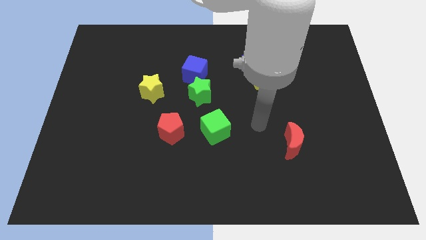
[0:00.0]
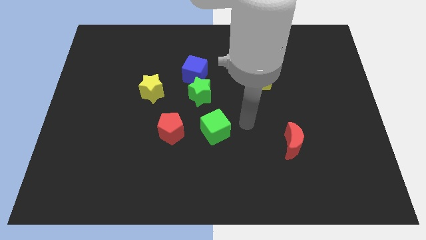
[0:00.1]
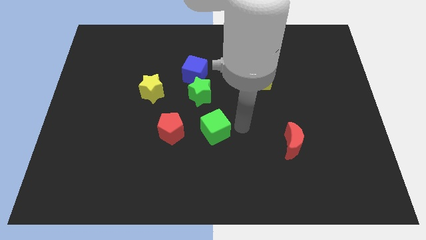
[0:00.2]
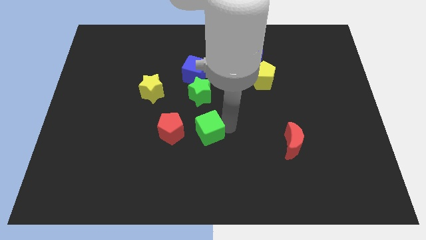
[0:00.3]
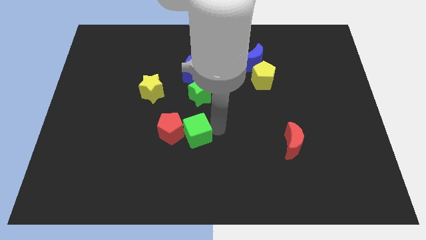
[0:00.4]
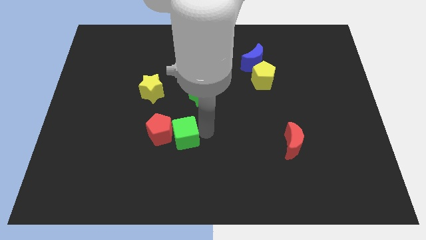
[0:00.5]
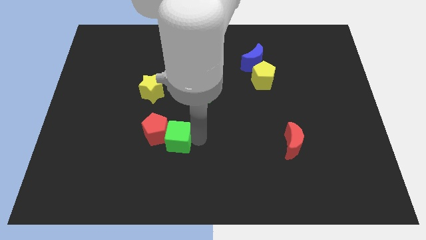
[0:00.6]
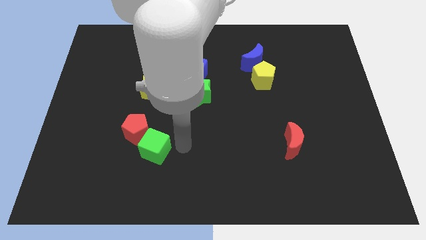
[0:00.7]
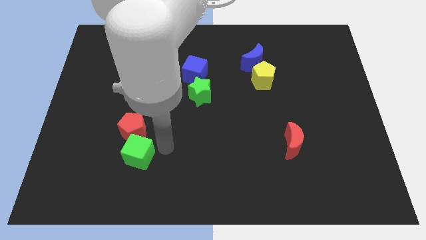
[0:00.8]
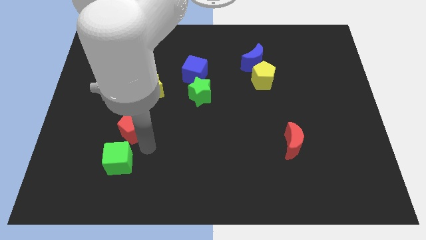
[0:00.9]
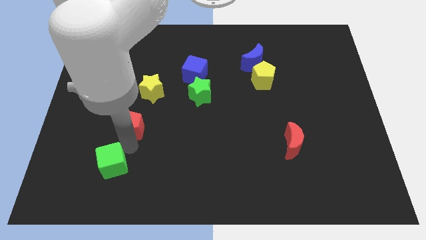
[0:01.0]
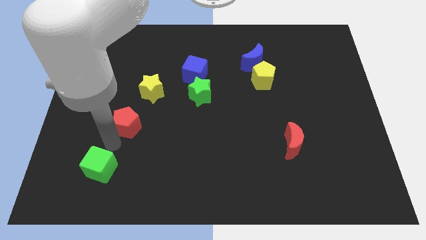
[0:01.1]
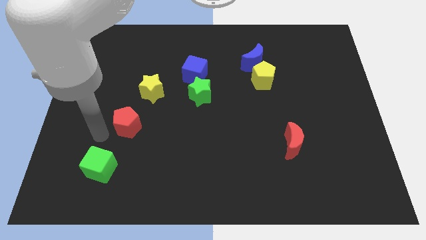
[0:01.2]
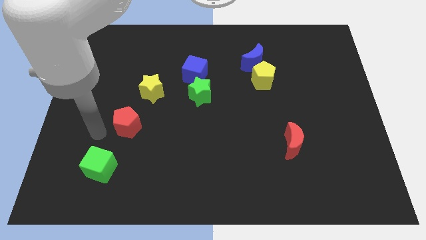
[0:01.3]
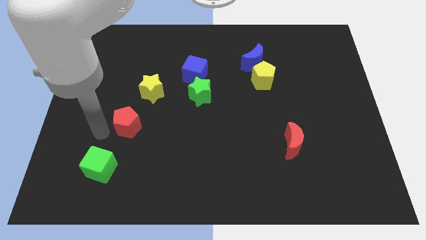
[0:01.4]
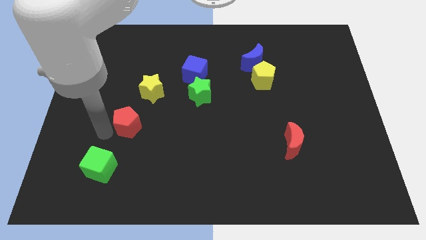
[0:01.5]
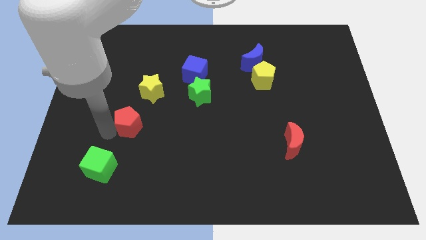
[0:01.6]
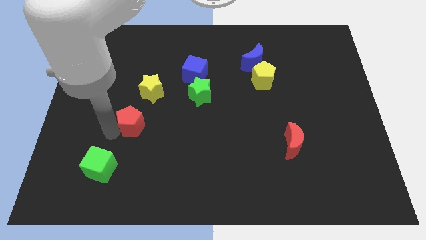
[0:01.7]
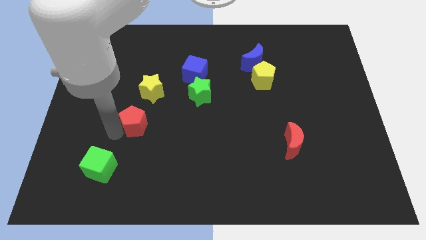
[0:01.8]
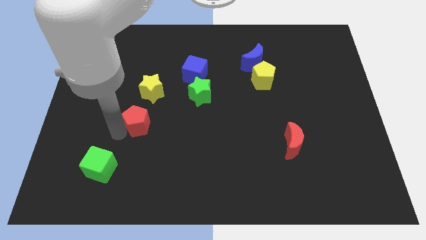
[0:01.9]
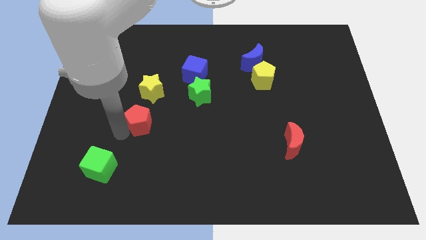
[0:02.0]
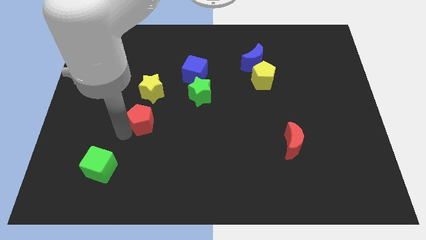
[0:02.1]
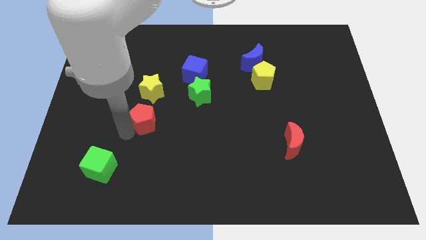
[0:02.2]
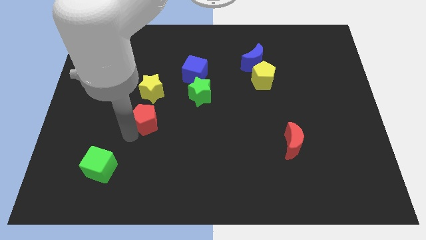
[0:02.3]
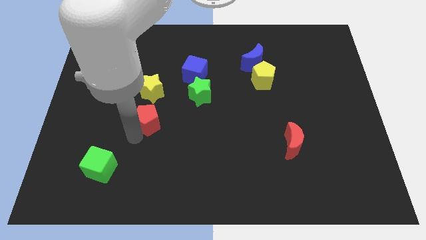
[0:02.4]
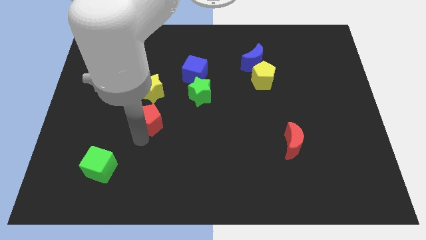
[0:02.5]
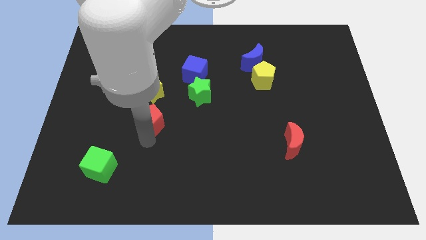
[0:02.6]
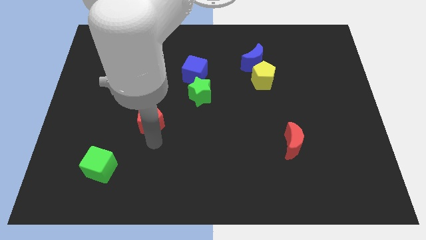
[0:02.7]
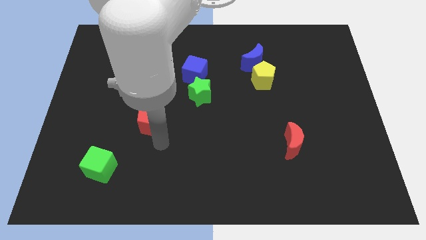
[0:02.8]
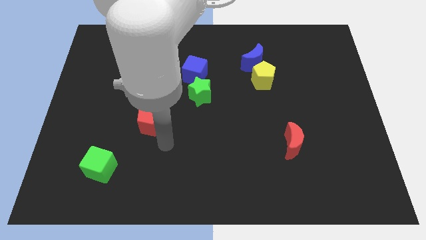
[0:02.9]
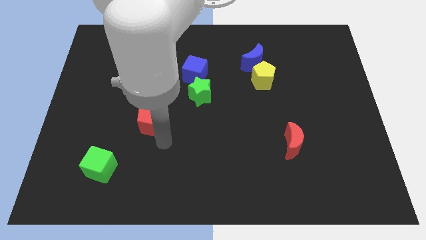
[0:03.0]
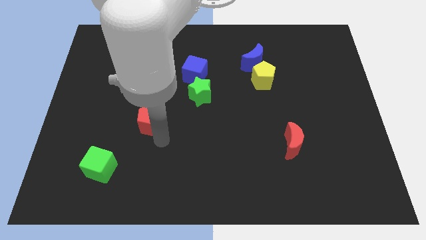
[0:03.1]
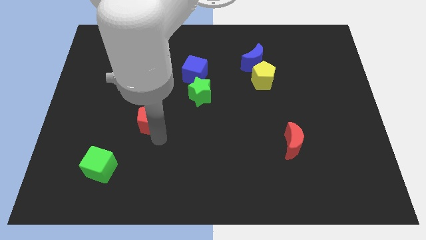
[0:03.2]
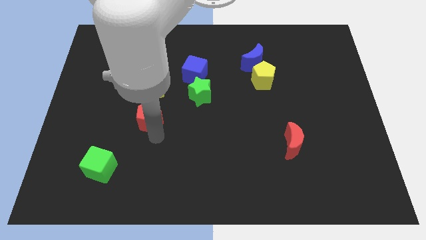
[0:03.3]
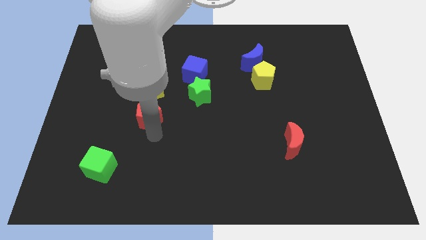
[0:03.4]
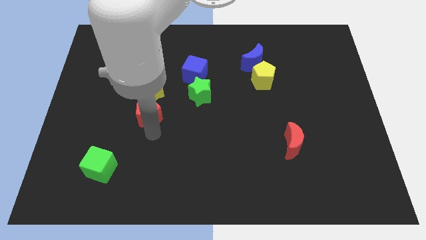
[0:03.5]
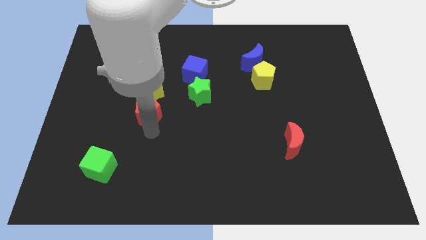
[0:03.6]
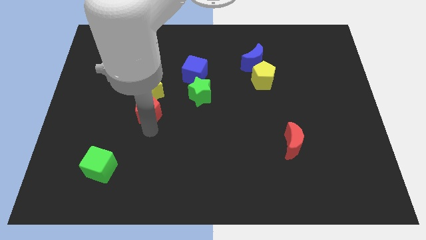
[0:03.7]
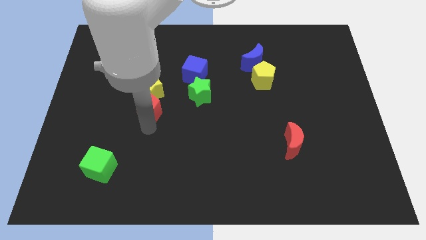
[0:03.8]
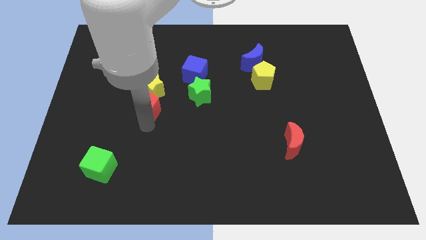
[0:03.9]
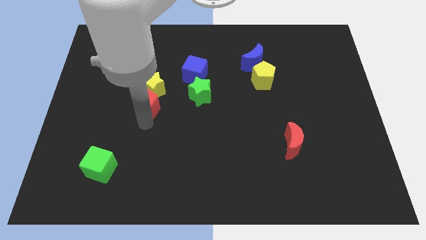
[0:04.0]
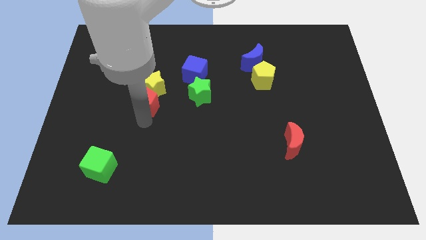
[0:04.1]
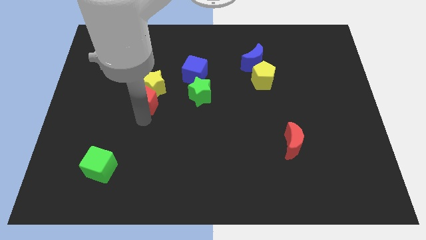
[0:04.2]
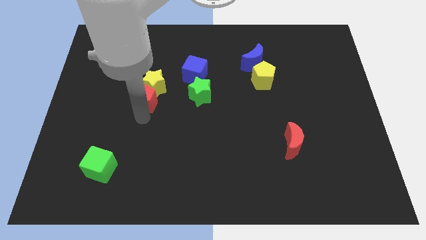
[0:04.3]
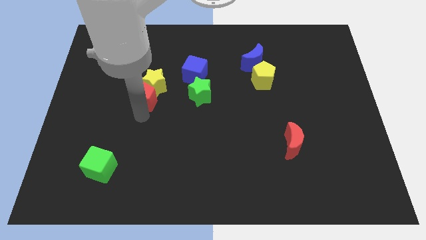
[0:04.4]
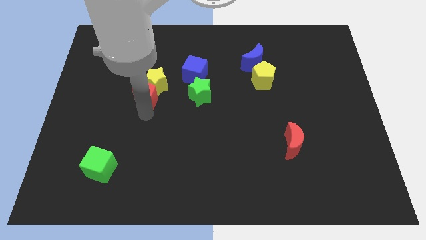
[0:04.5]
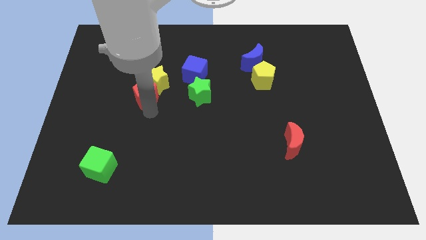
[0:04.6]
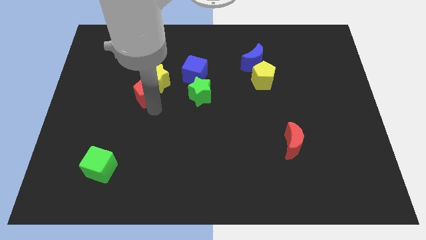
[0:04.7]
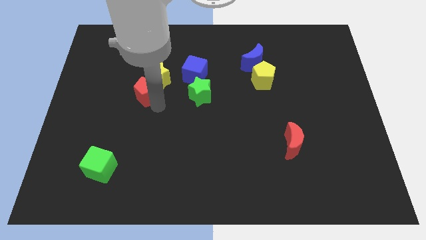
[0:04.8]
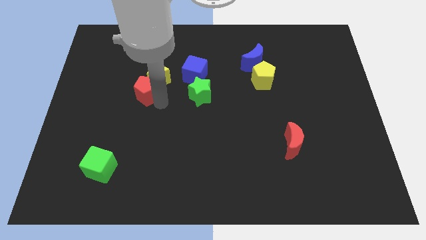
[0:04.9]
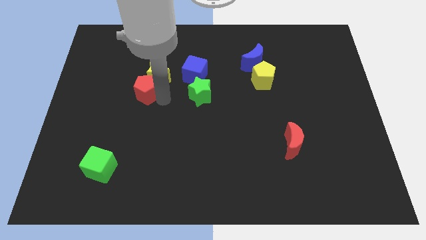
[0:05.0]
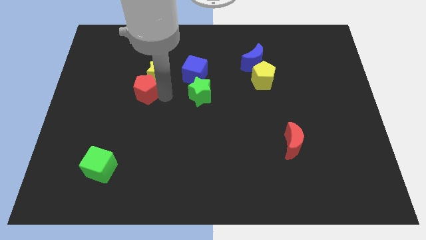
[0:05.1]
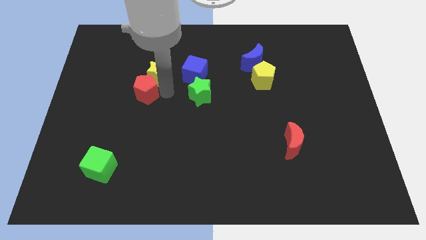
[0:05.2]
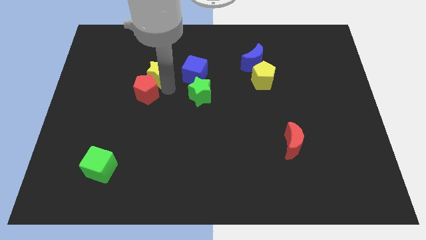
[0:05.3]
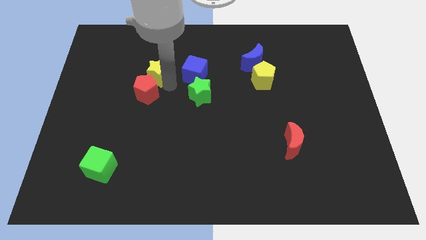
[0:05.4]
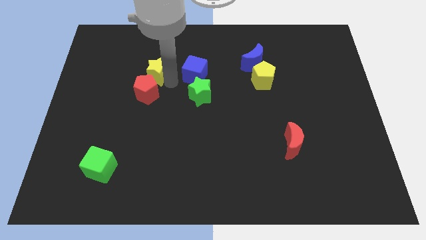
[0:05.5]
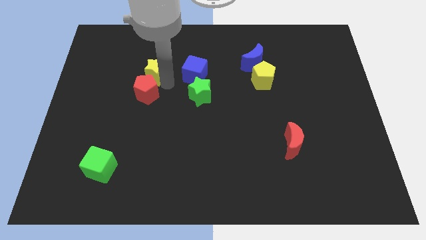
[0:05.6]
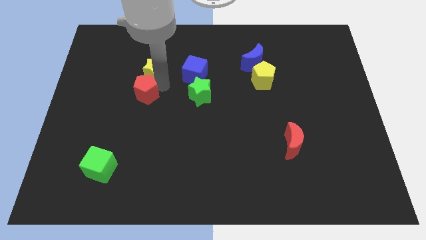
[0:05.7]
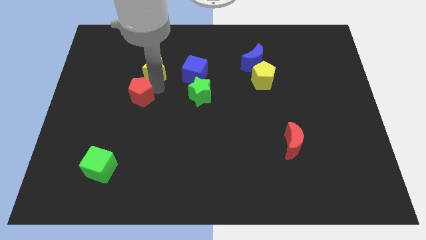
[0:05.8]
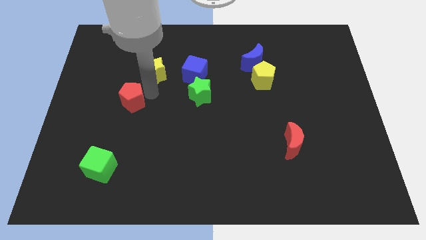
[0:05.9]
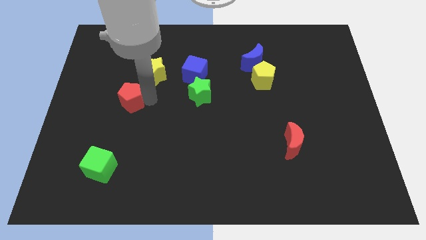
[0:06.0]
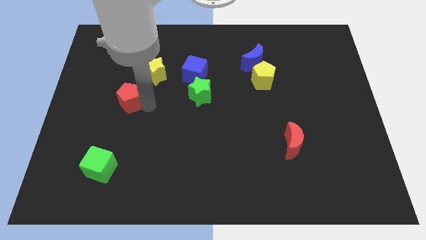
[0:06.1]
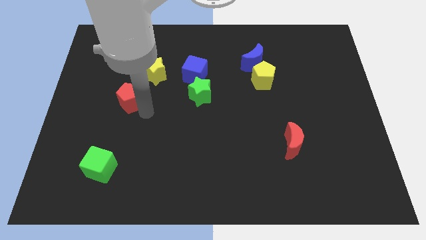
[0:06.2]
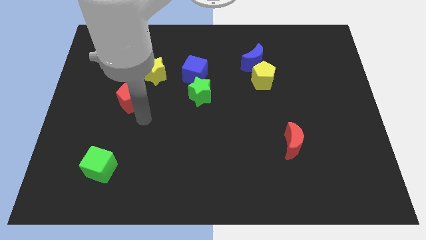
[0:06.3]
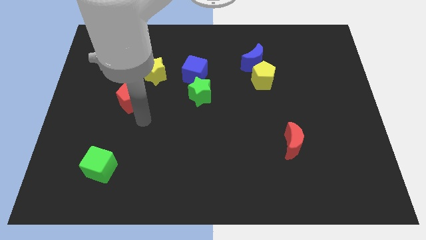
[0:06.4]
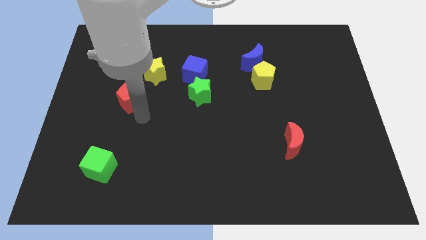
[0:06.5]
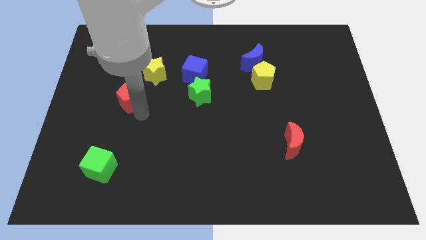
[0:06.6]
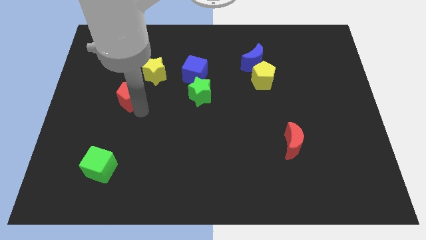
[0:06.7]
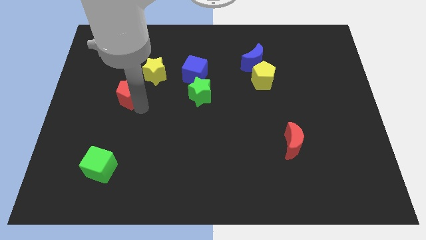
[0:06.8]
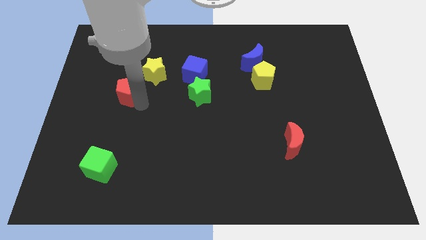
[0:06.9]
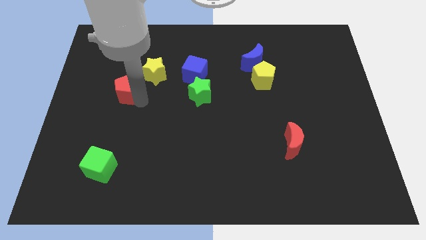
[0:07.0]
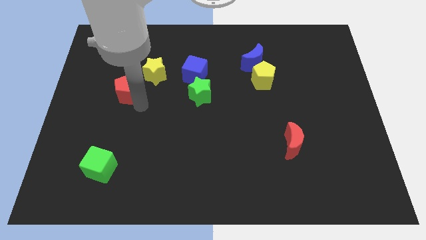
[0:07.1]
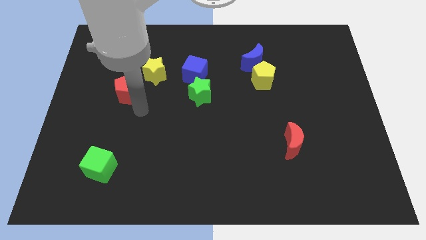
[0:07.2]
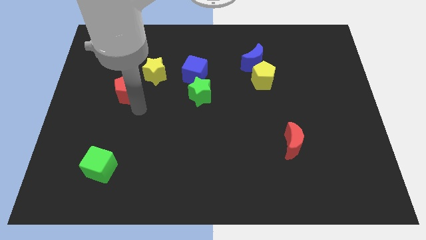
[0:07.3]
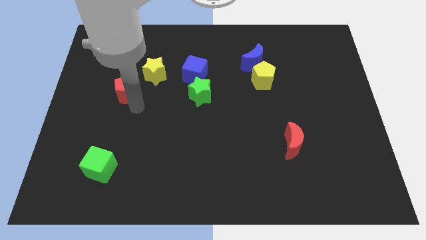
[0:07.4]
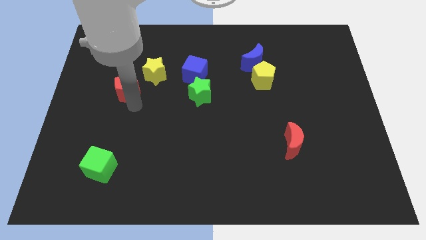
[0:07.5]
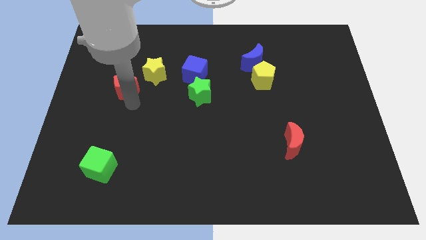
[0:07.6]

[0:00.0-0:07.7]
move the red pentagon to the left side of the yellow star
